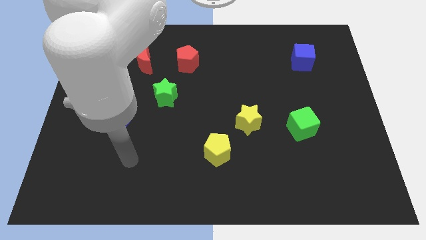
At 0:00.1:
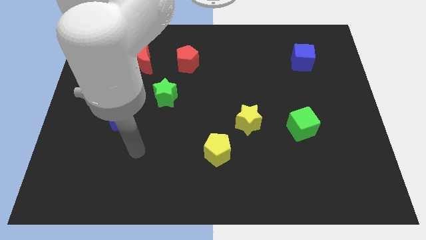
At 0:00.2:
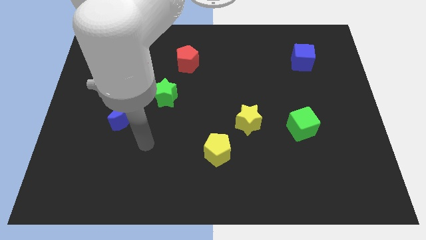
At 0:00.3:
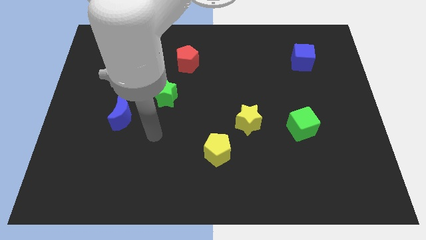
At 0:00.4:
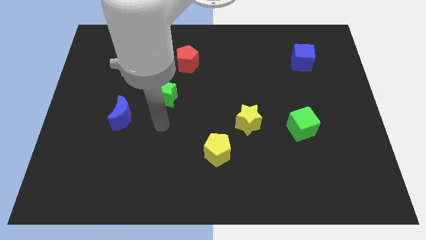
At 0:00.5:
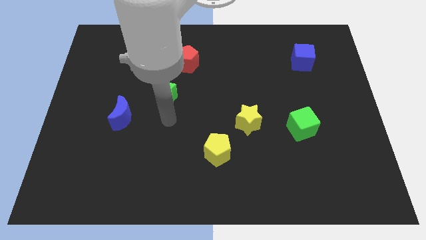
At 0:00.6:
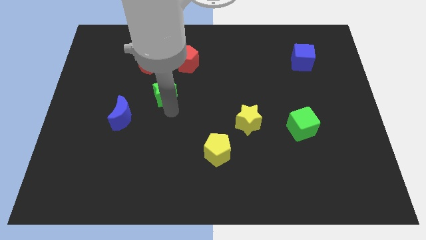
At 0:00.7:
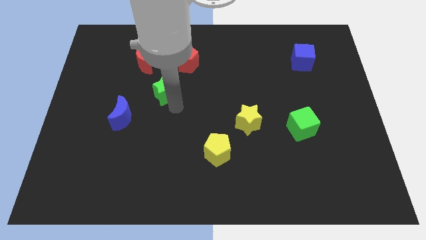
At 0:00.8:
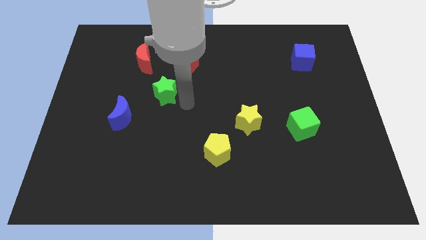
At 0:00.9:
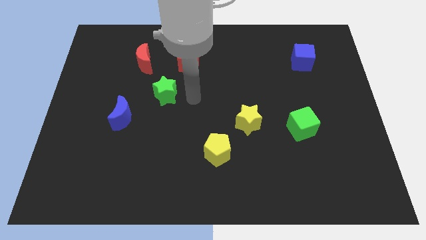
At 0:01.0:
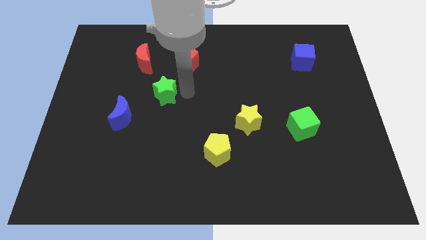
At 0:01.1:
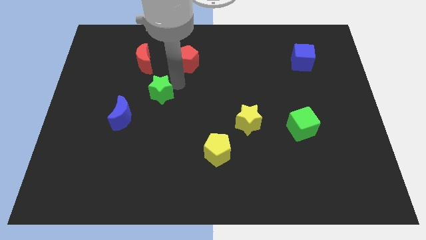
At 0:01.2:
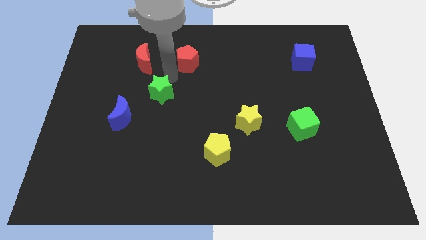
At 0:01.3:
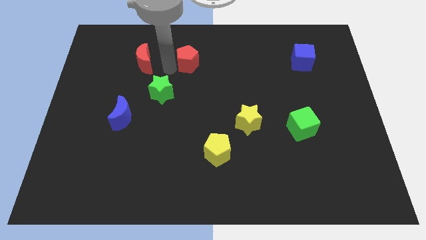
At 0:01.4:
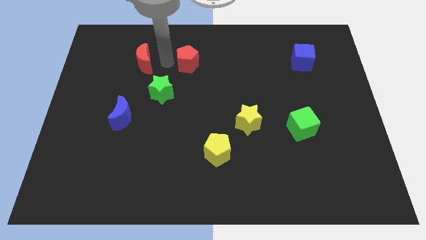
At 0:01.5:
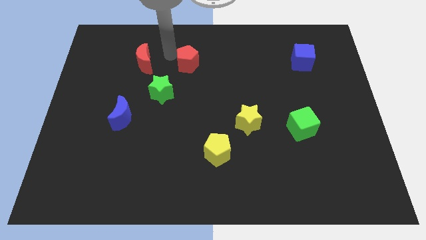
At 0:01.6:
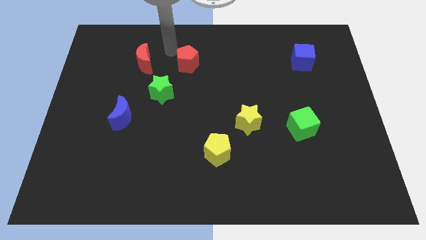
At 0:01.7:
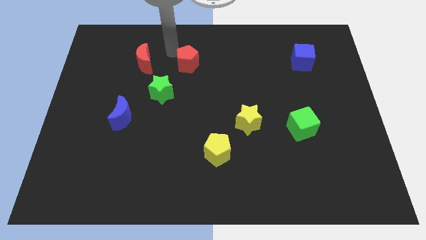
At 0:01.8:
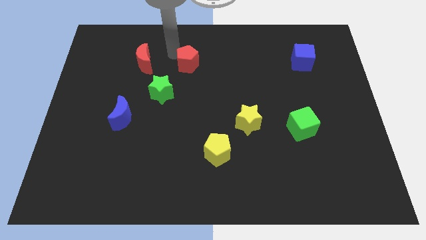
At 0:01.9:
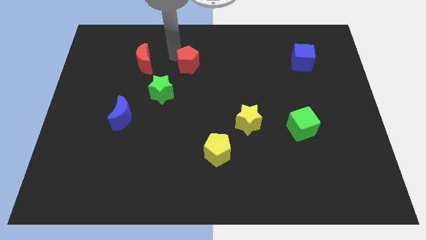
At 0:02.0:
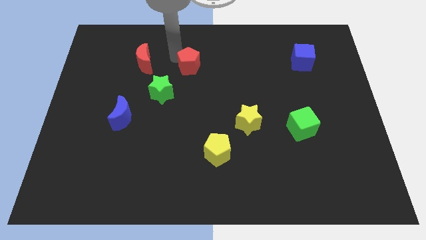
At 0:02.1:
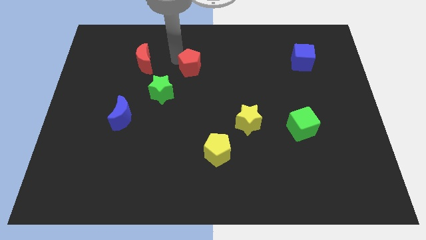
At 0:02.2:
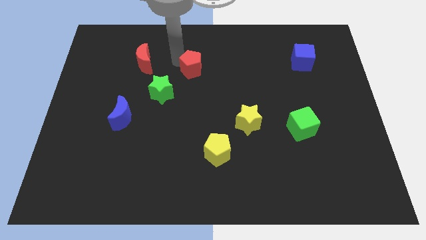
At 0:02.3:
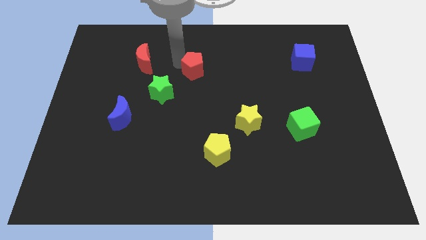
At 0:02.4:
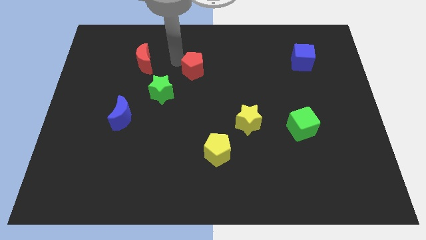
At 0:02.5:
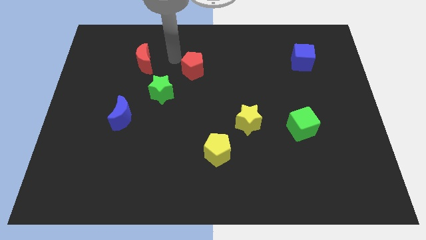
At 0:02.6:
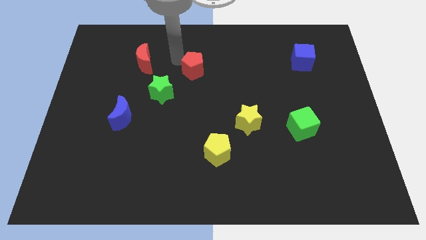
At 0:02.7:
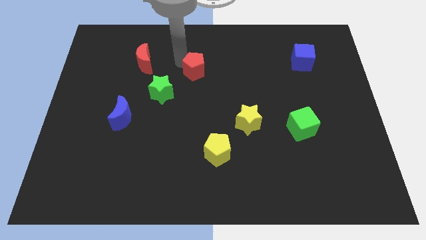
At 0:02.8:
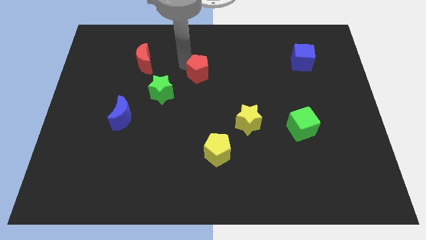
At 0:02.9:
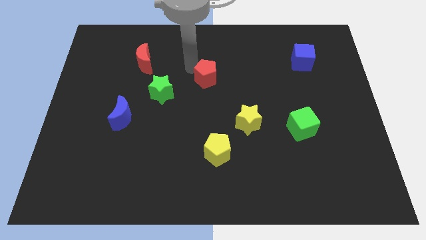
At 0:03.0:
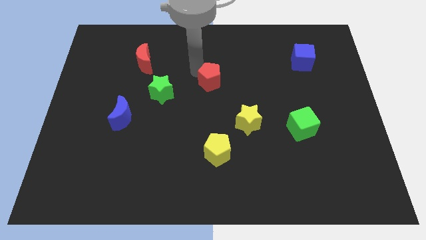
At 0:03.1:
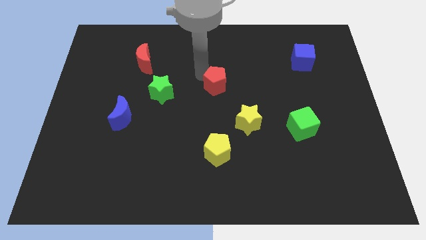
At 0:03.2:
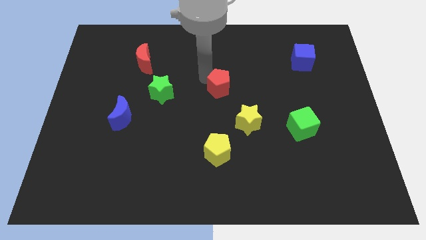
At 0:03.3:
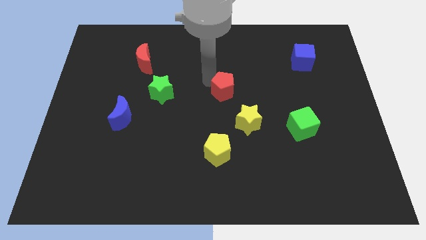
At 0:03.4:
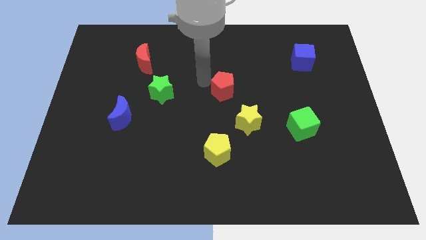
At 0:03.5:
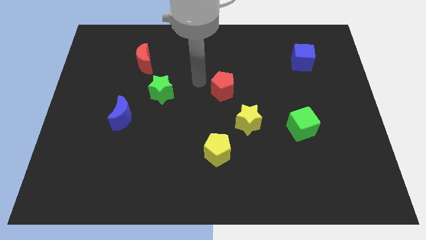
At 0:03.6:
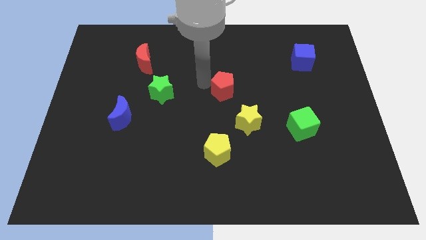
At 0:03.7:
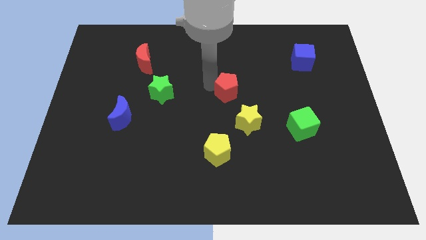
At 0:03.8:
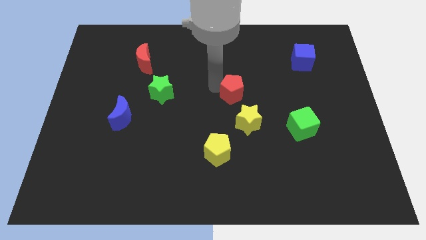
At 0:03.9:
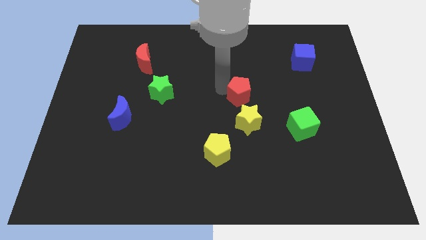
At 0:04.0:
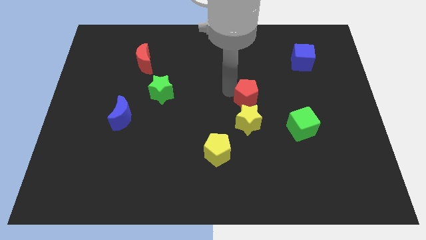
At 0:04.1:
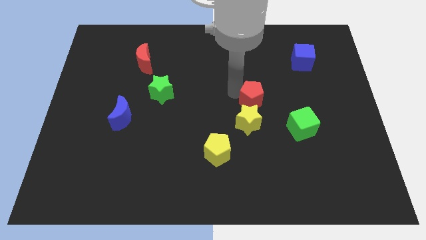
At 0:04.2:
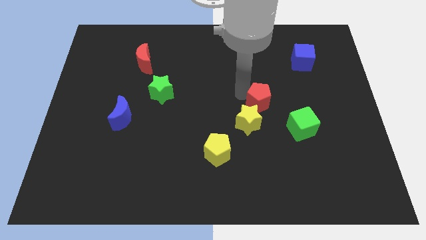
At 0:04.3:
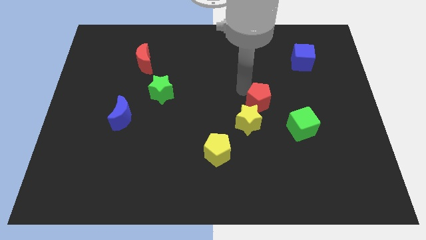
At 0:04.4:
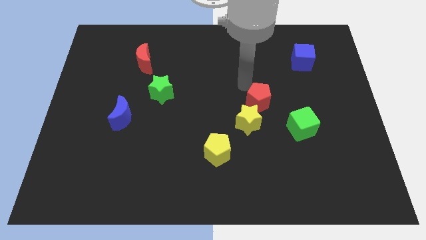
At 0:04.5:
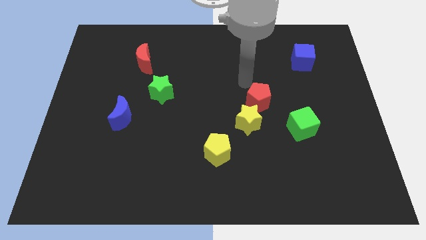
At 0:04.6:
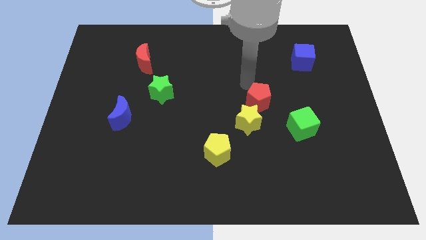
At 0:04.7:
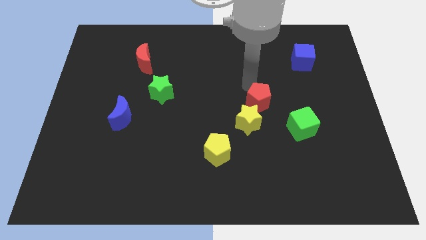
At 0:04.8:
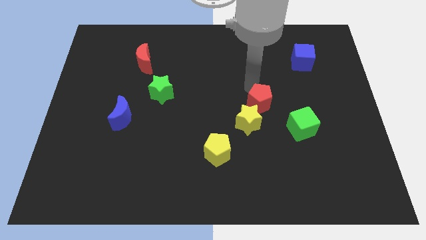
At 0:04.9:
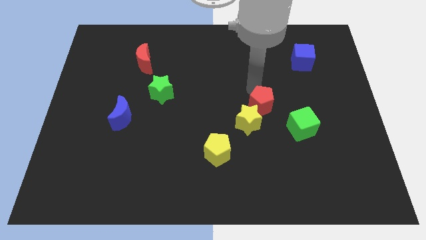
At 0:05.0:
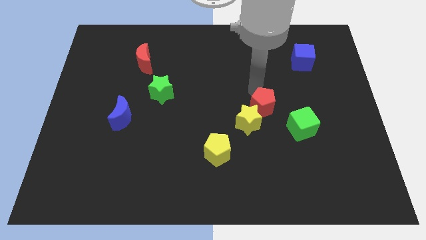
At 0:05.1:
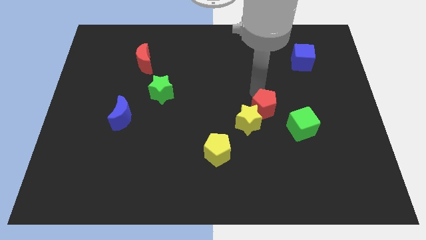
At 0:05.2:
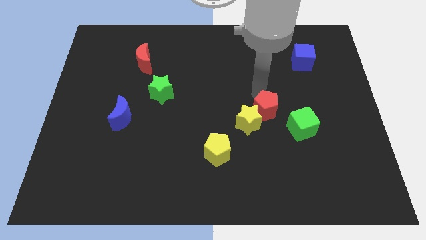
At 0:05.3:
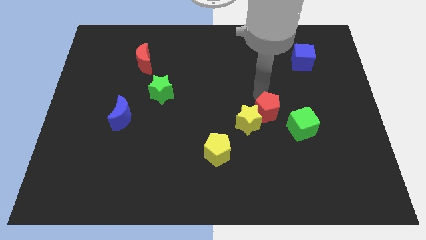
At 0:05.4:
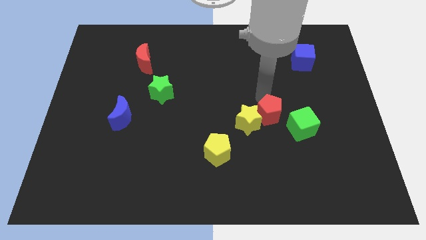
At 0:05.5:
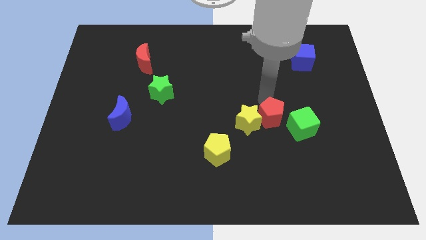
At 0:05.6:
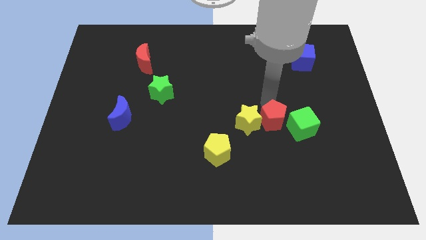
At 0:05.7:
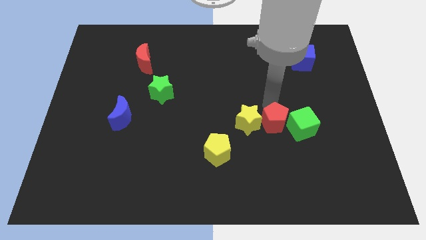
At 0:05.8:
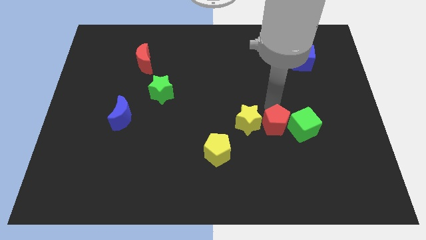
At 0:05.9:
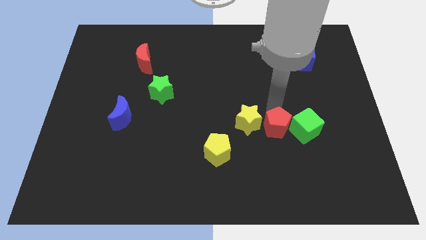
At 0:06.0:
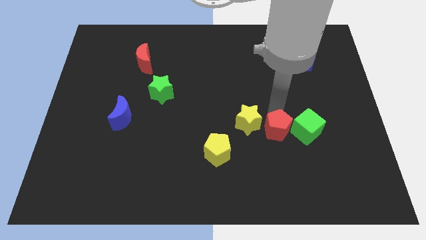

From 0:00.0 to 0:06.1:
move the red pentagon to the bottom left side of the green cube
